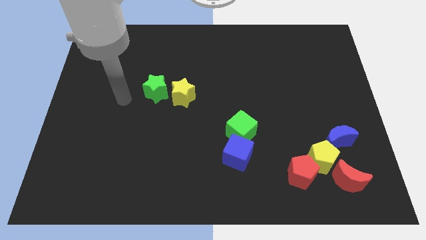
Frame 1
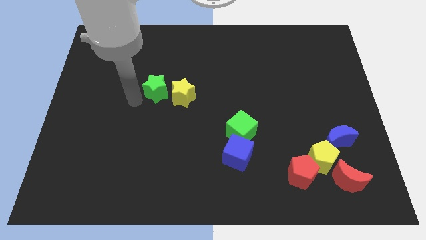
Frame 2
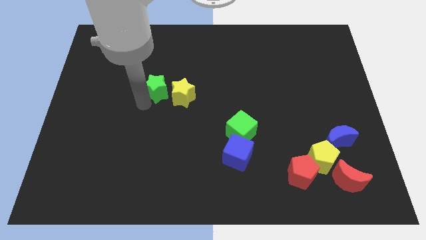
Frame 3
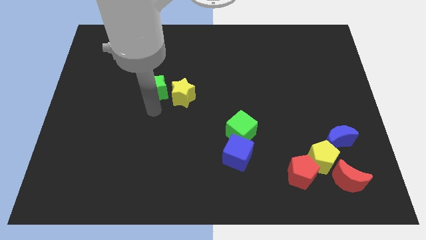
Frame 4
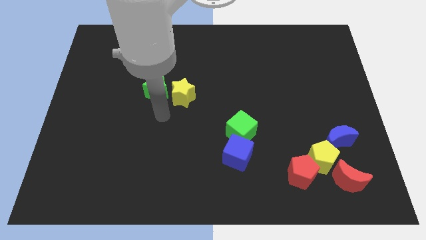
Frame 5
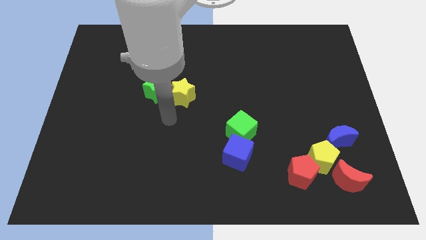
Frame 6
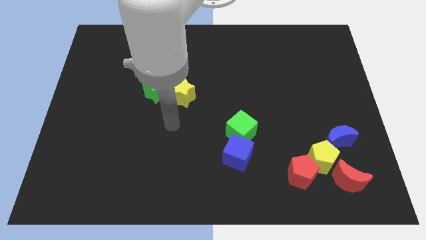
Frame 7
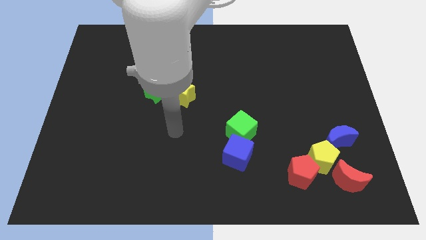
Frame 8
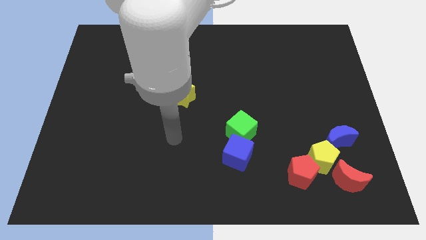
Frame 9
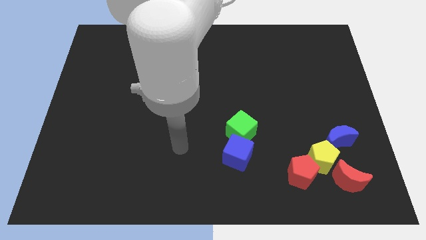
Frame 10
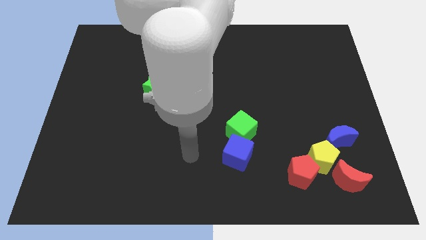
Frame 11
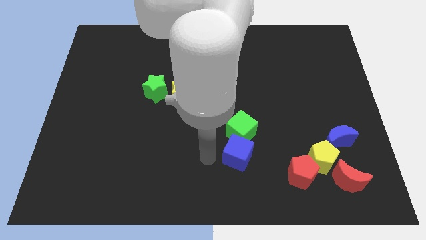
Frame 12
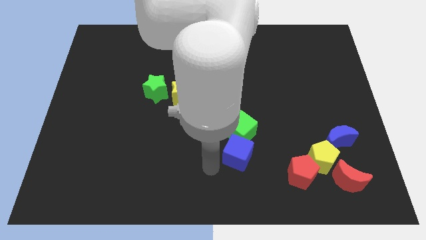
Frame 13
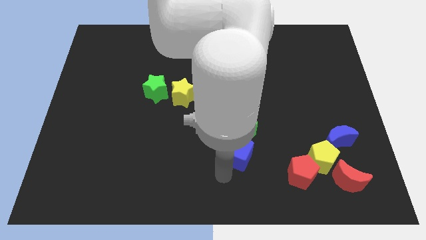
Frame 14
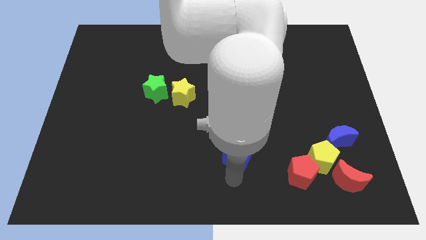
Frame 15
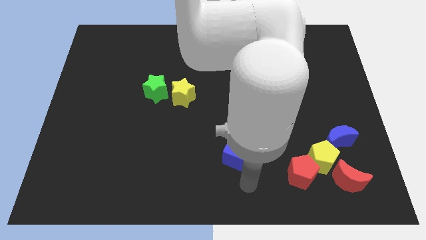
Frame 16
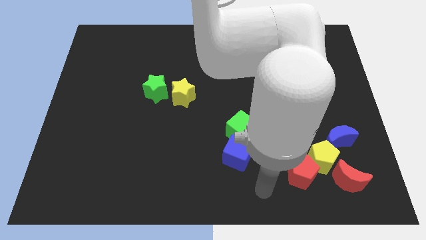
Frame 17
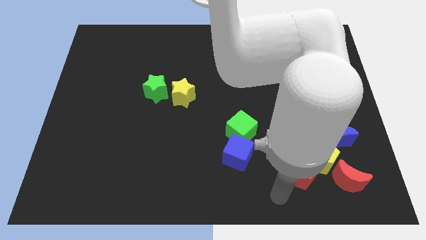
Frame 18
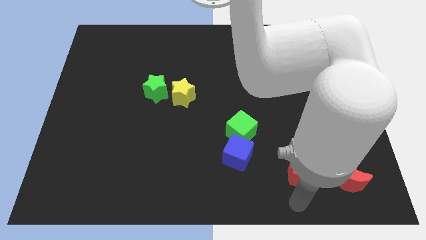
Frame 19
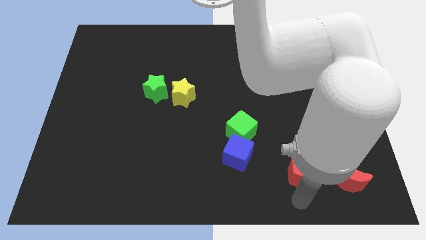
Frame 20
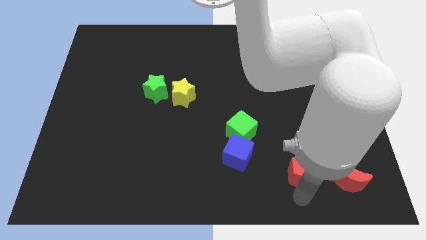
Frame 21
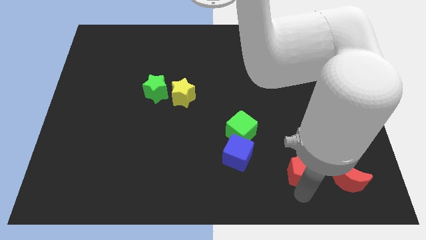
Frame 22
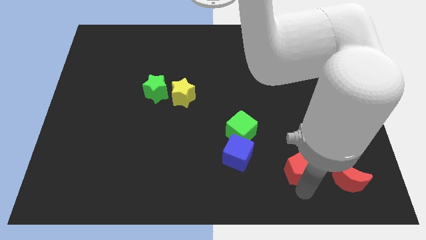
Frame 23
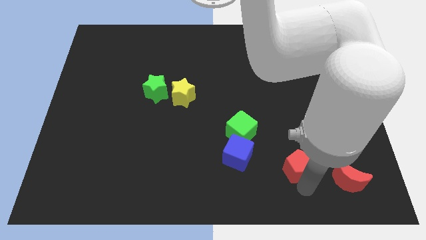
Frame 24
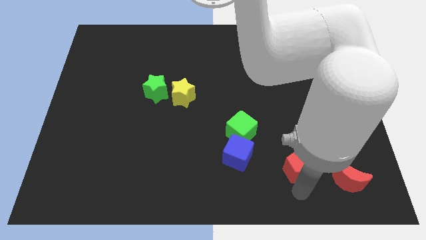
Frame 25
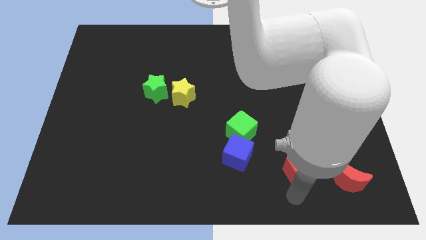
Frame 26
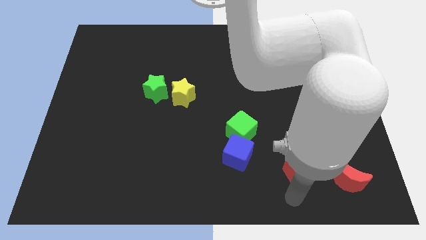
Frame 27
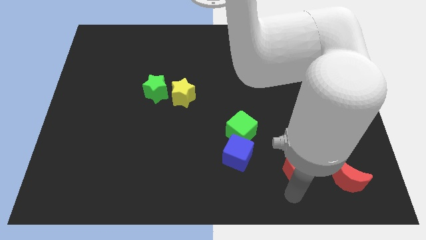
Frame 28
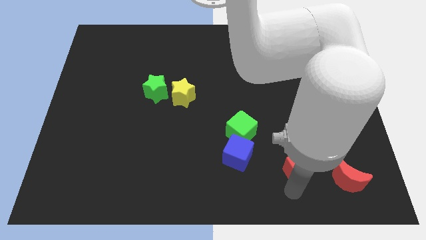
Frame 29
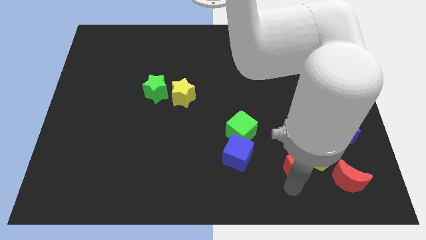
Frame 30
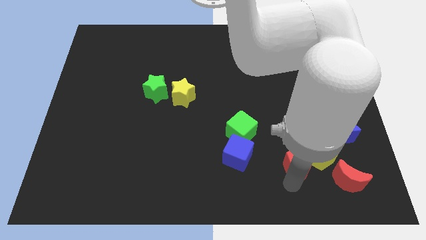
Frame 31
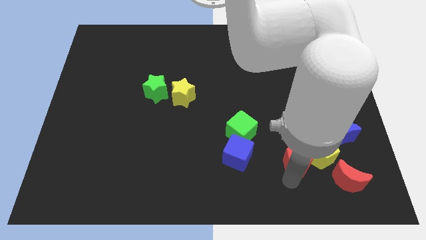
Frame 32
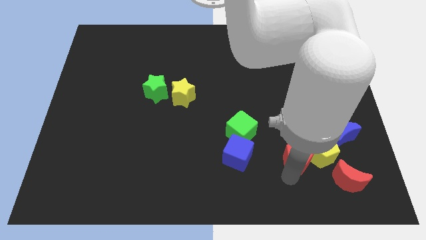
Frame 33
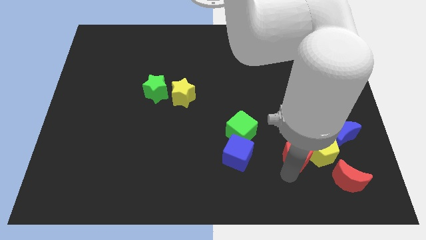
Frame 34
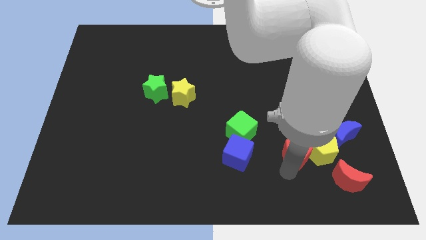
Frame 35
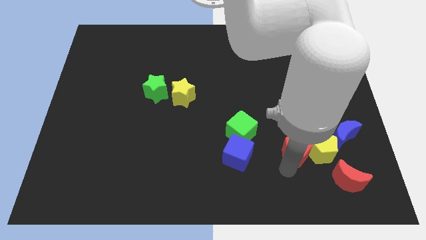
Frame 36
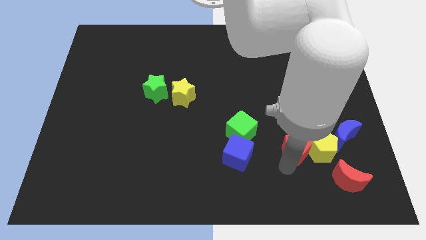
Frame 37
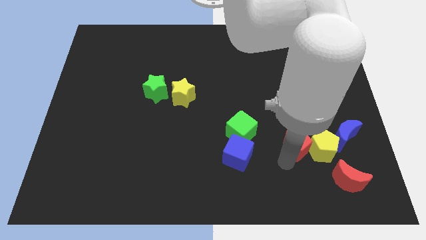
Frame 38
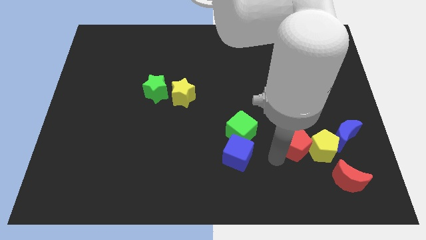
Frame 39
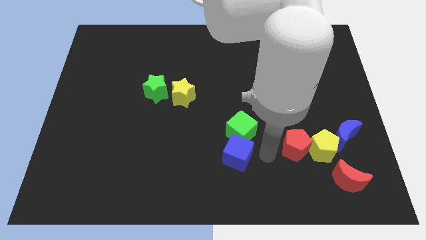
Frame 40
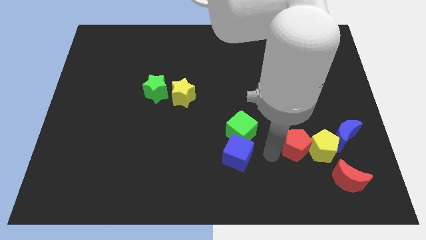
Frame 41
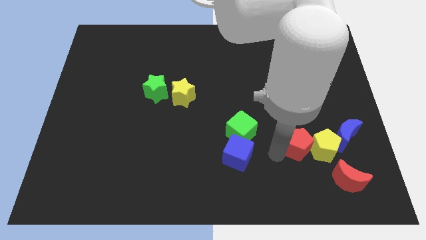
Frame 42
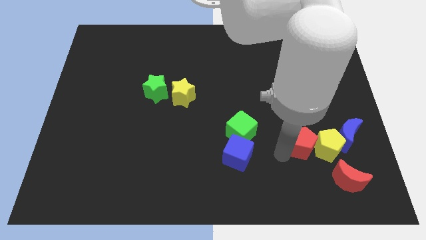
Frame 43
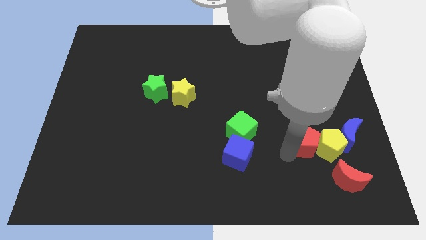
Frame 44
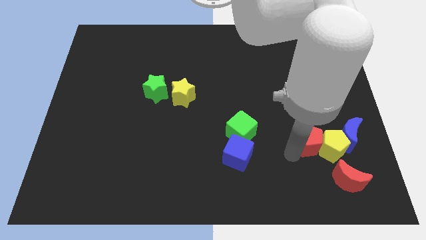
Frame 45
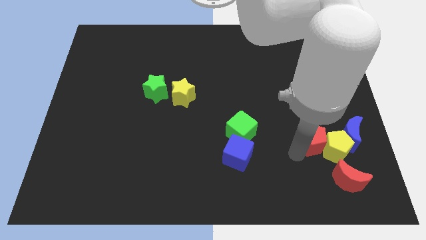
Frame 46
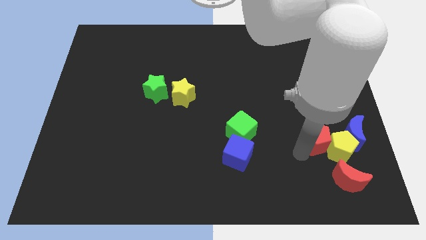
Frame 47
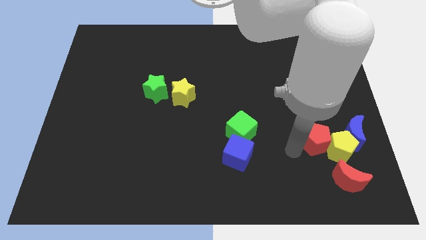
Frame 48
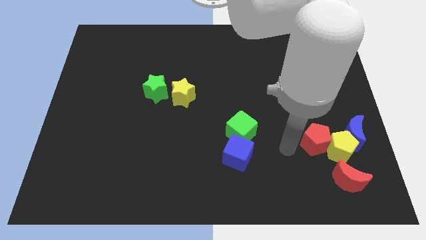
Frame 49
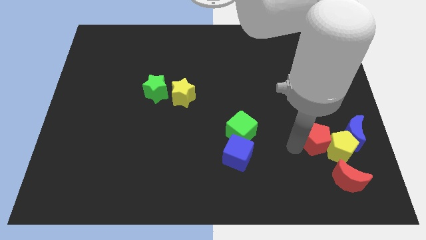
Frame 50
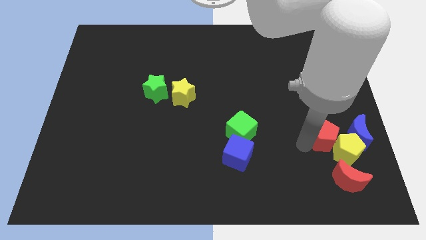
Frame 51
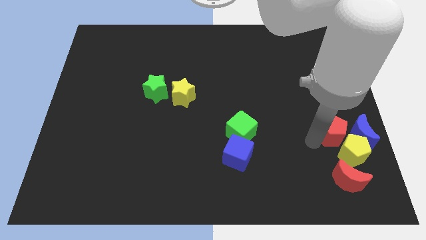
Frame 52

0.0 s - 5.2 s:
slide the red pentagon next to the blue moon

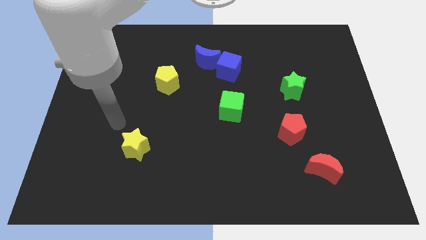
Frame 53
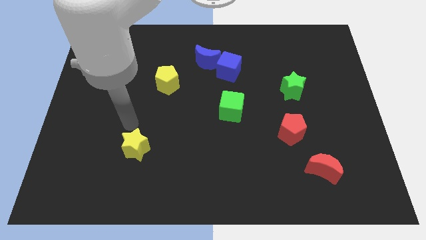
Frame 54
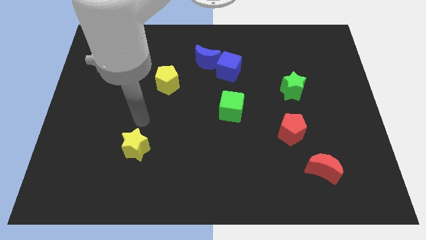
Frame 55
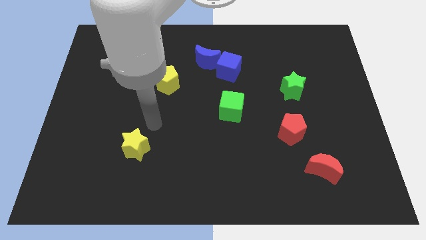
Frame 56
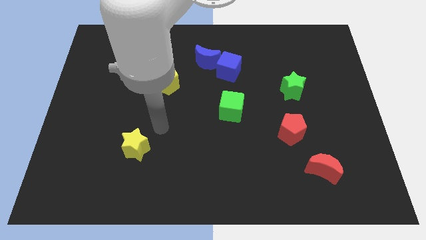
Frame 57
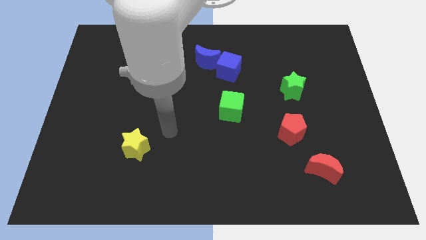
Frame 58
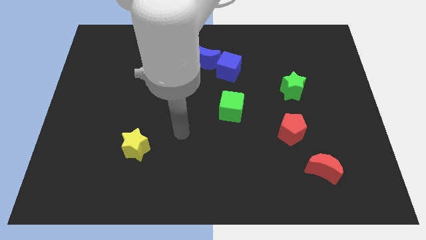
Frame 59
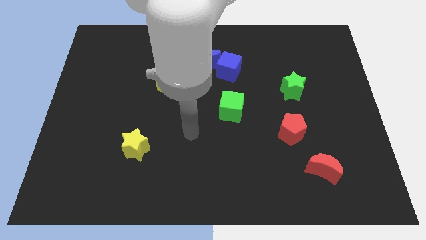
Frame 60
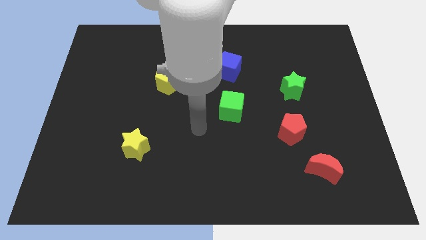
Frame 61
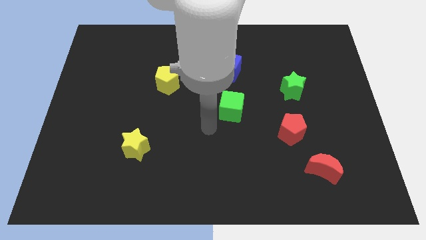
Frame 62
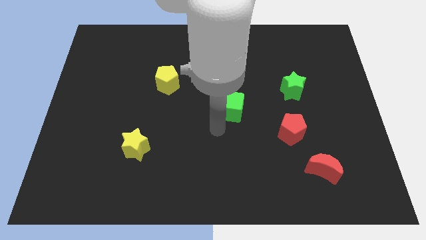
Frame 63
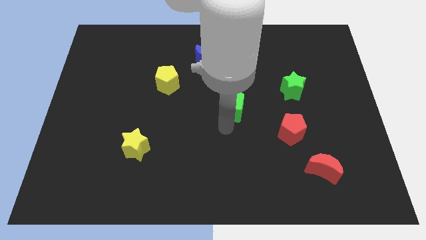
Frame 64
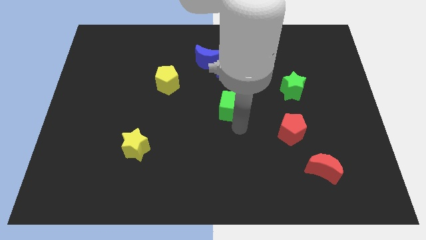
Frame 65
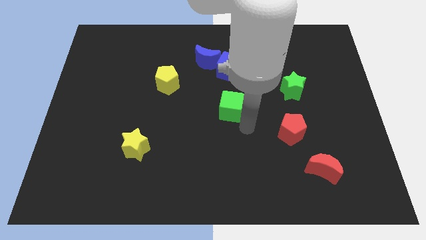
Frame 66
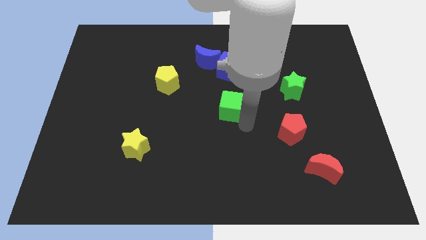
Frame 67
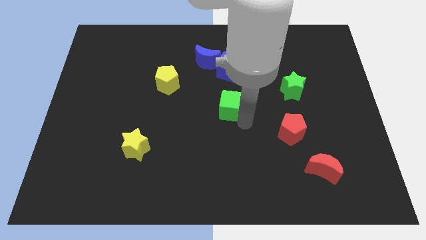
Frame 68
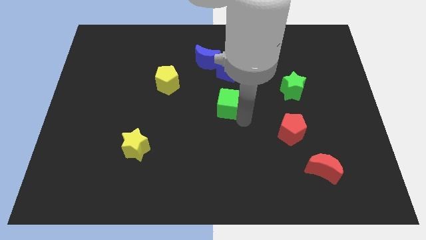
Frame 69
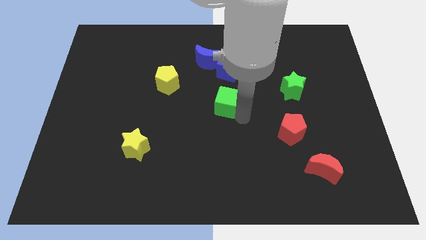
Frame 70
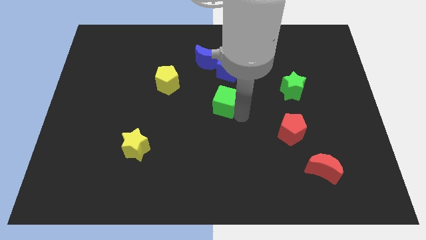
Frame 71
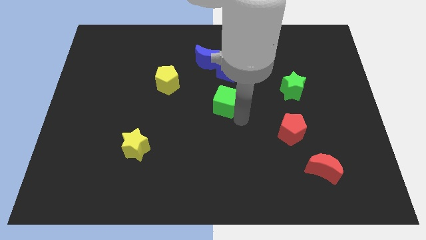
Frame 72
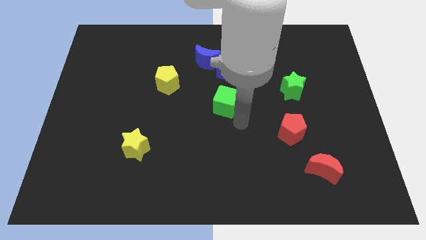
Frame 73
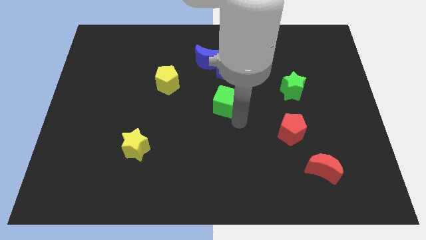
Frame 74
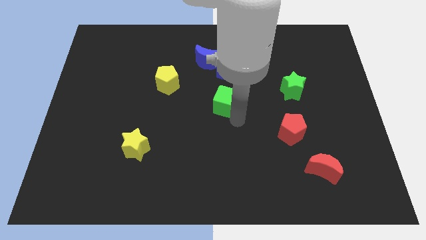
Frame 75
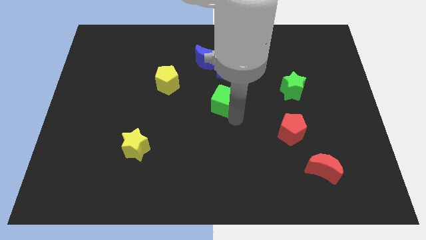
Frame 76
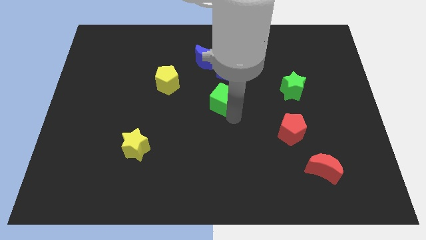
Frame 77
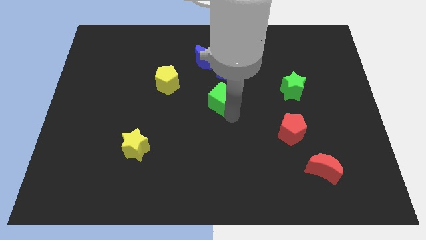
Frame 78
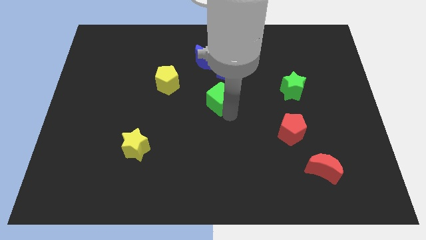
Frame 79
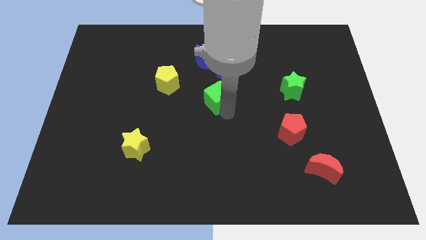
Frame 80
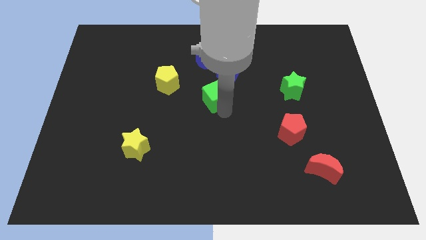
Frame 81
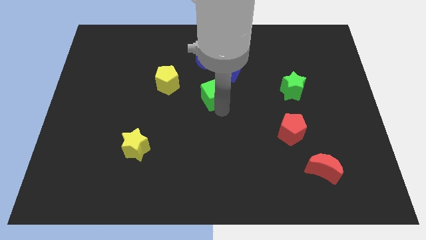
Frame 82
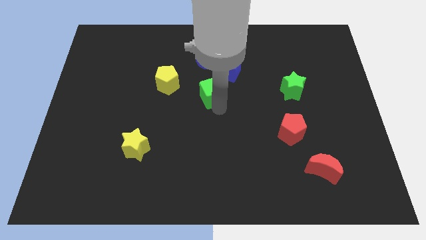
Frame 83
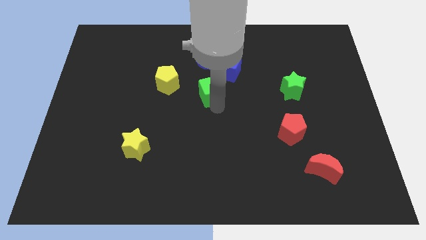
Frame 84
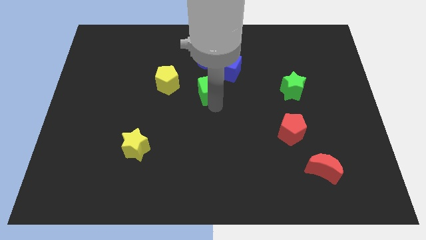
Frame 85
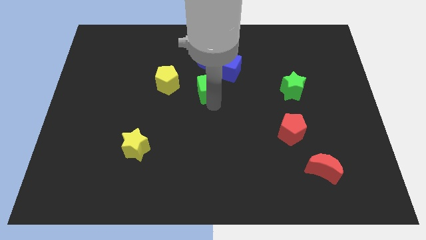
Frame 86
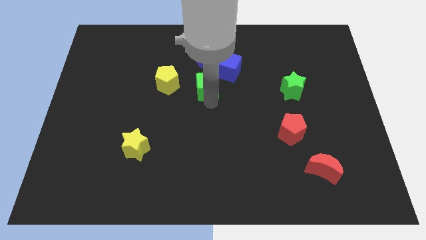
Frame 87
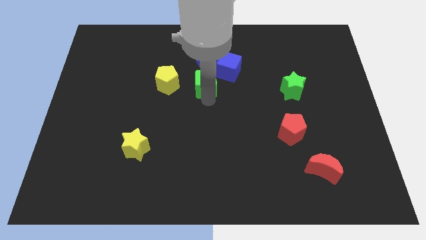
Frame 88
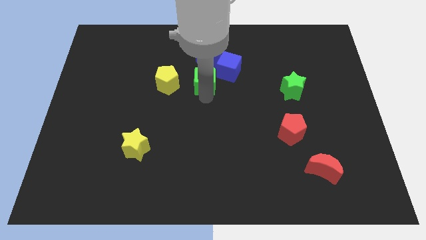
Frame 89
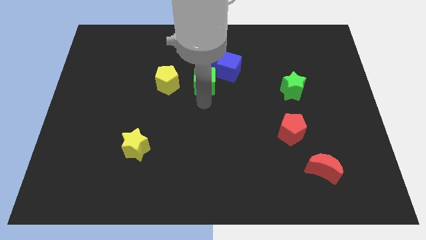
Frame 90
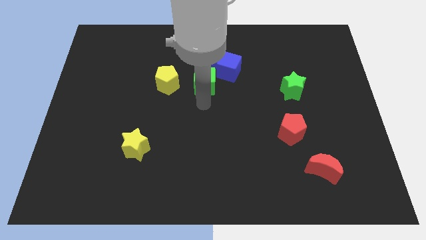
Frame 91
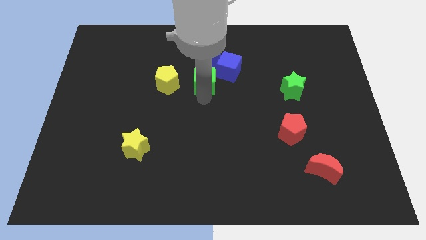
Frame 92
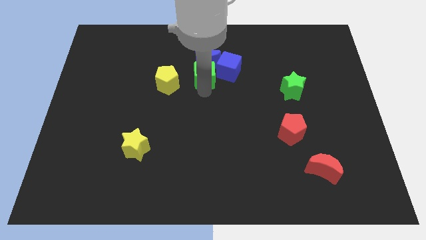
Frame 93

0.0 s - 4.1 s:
move the green cube towards the blue moon
